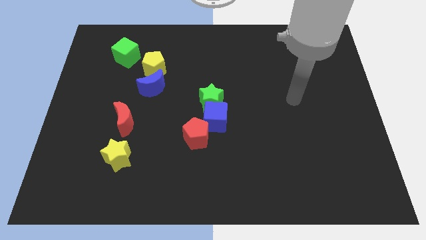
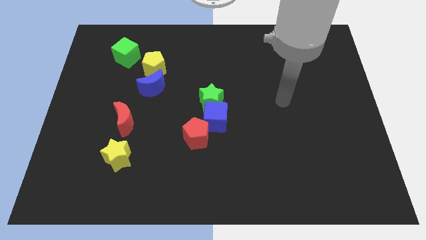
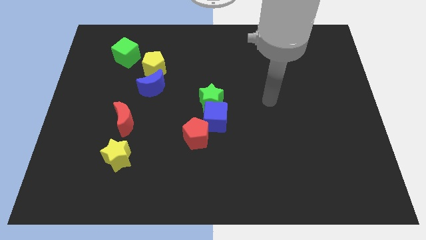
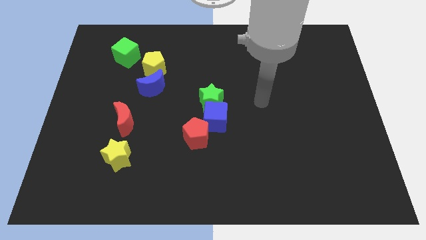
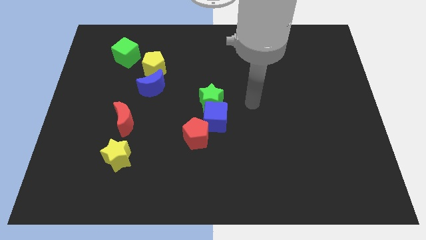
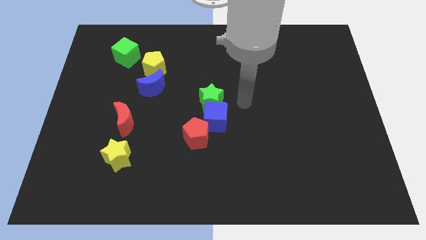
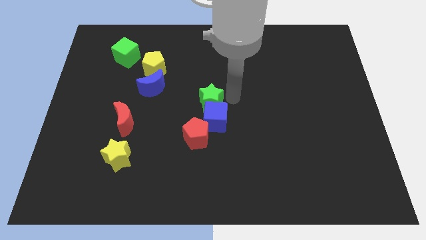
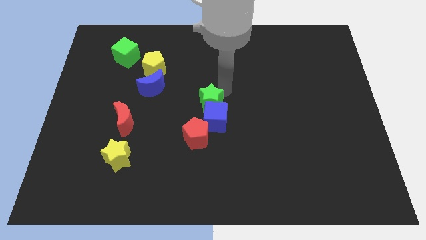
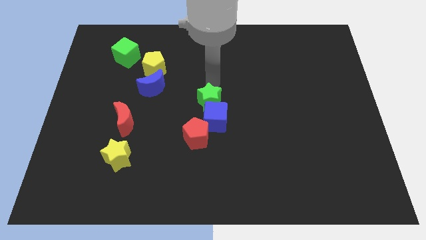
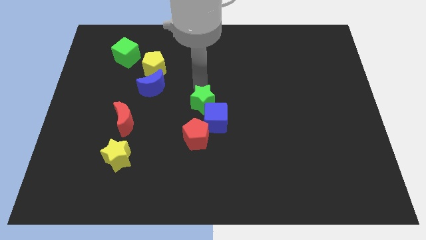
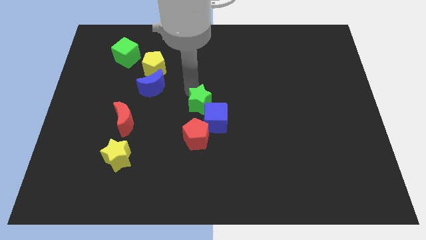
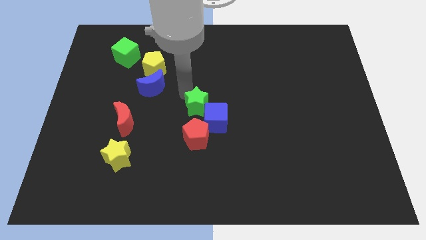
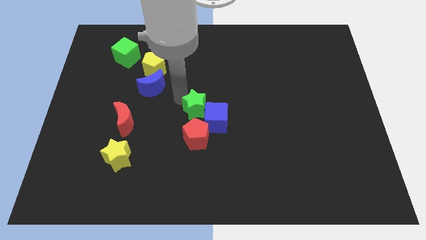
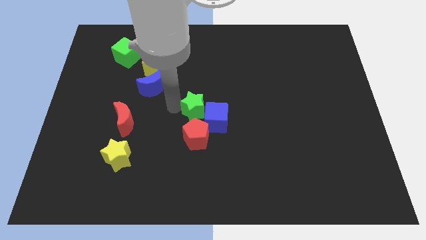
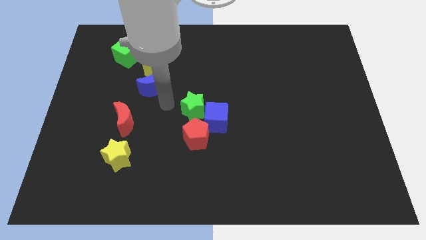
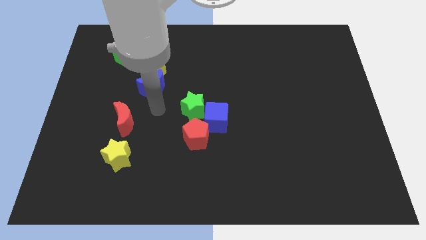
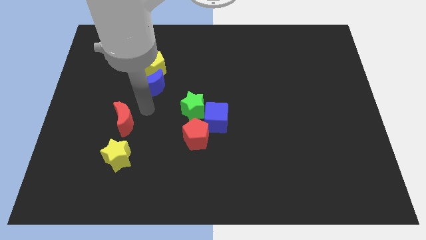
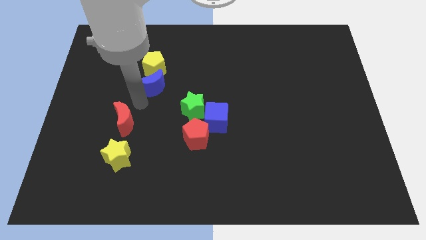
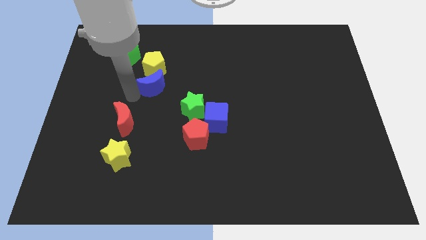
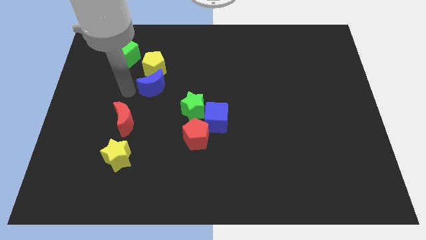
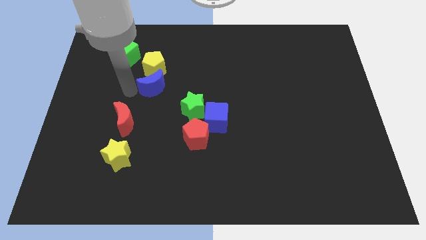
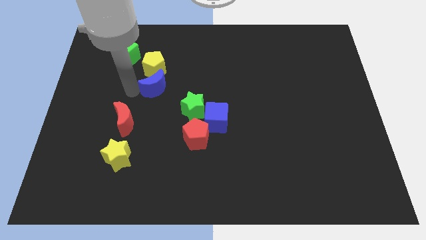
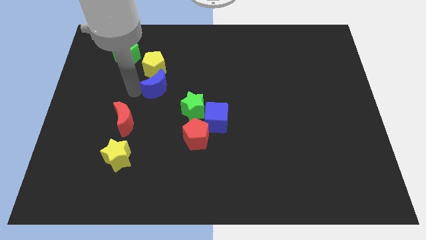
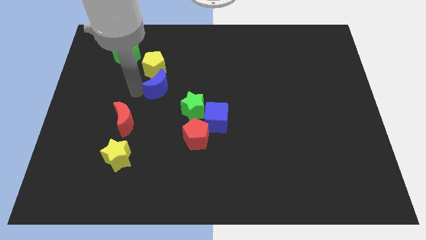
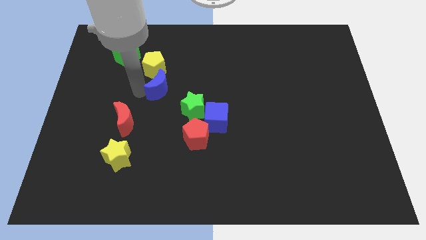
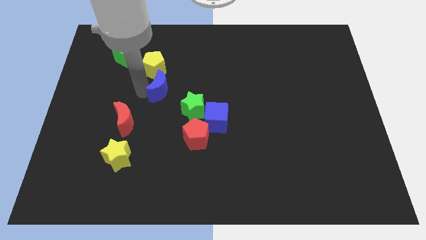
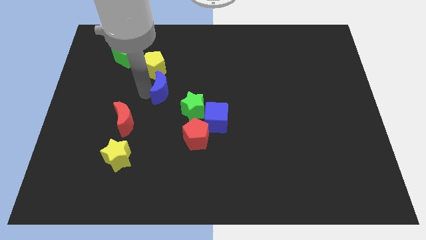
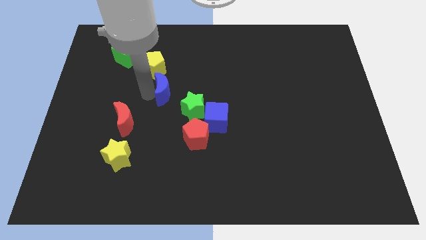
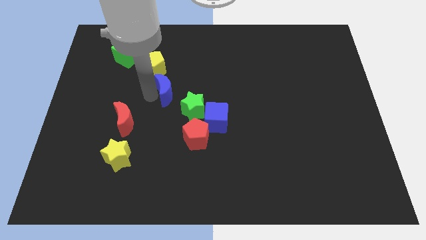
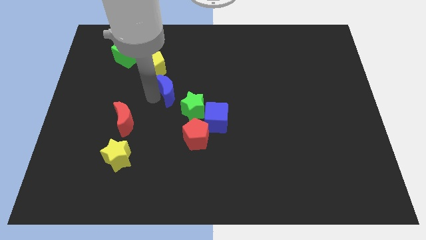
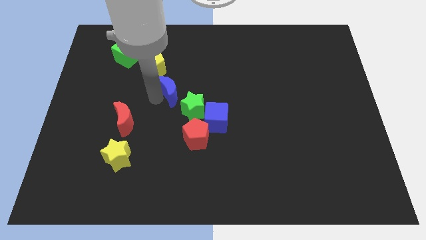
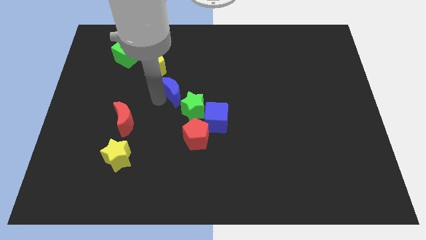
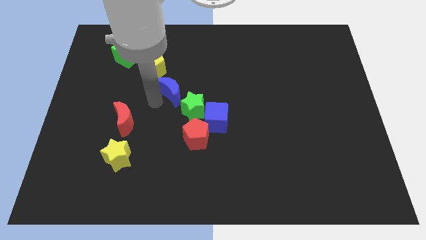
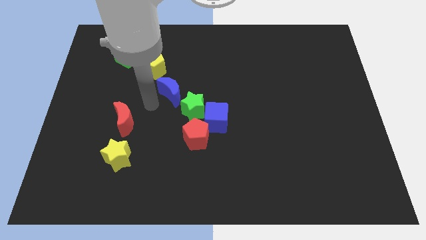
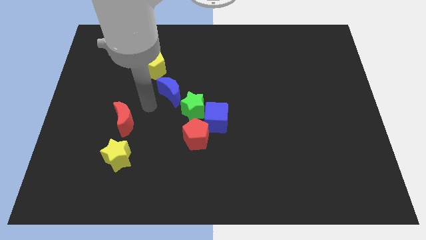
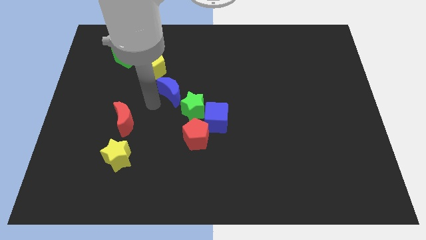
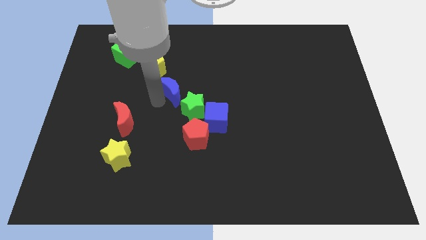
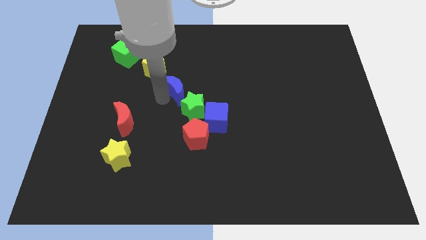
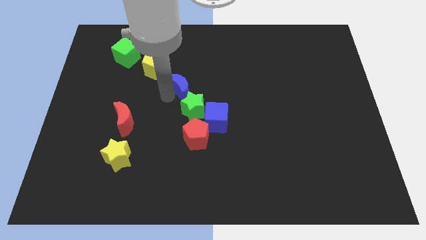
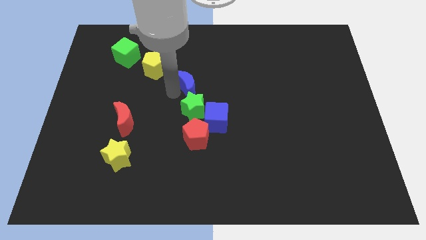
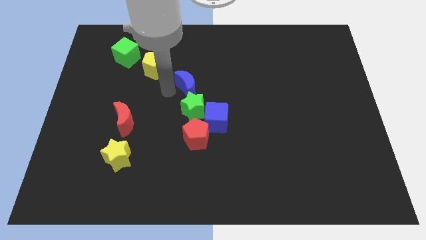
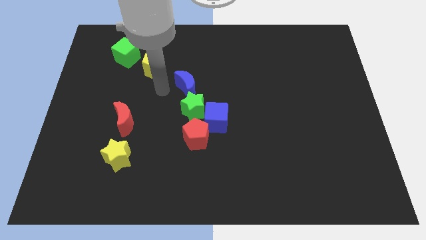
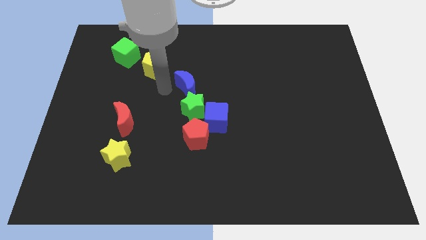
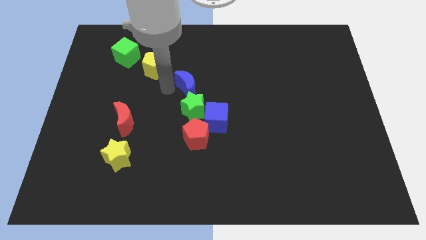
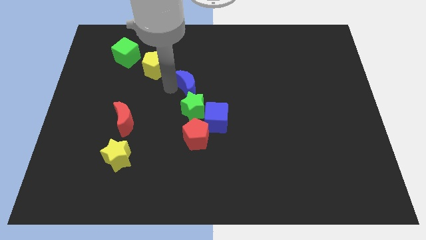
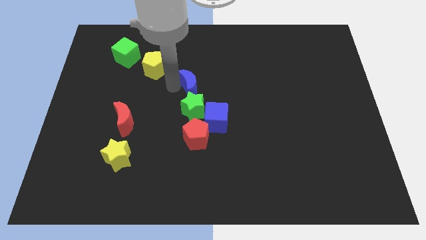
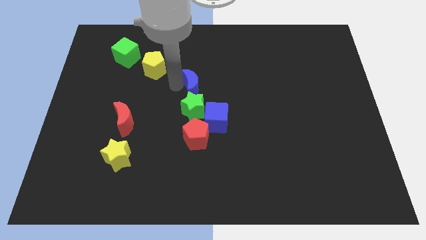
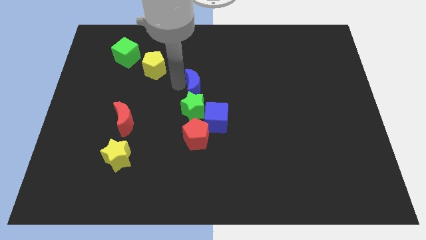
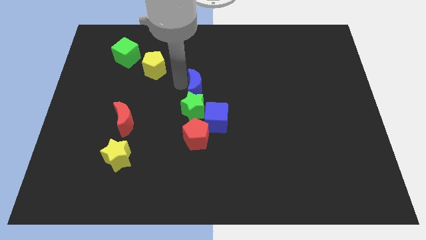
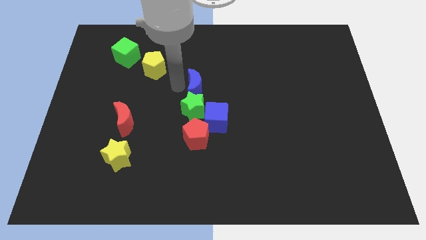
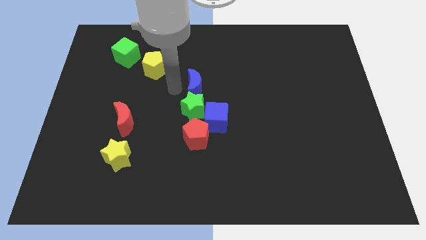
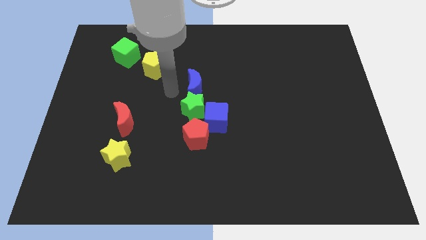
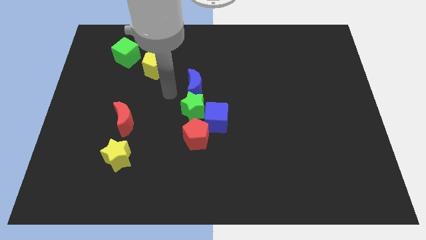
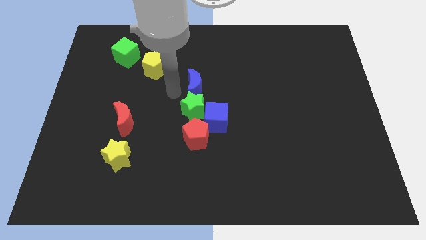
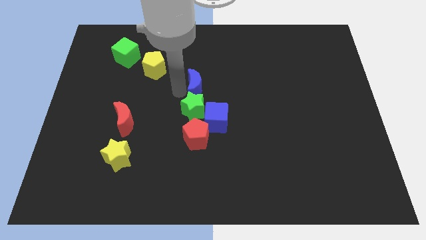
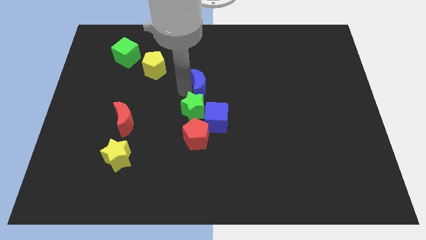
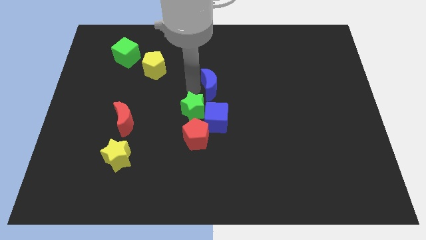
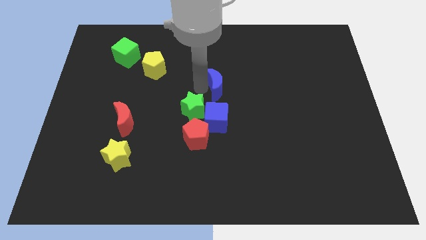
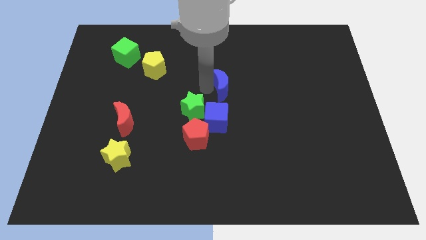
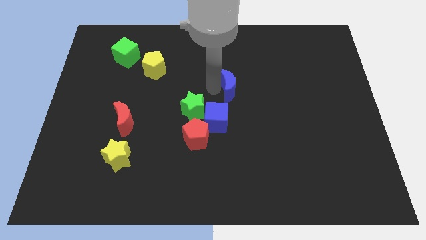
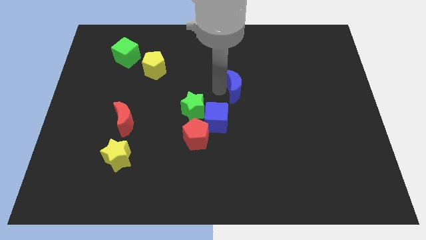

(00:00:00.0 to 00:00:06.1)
slide the blue moon to the right

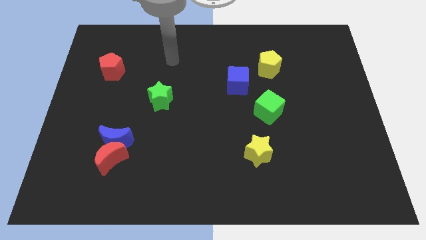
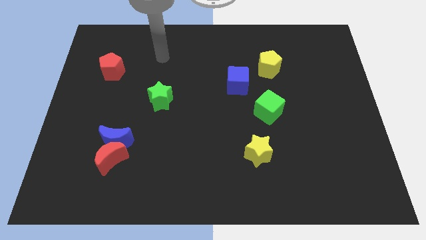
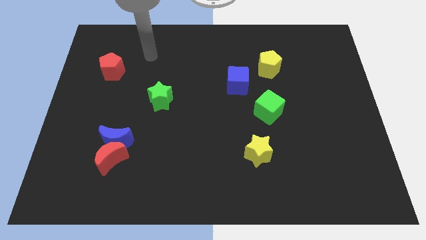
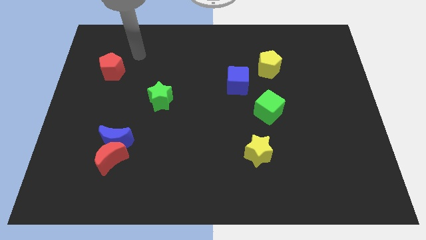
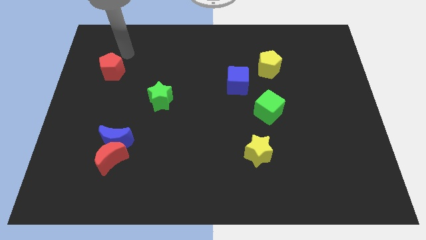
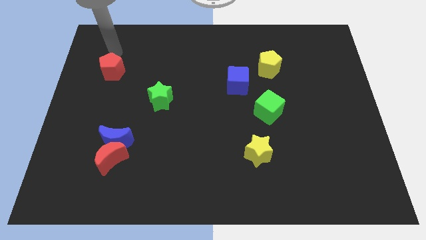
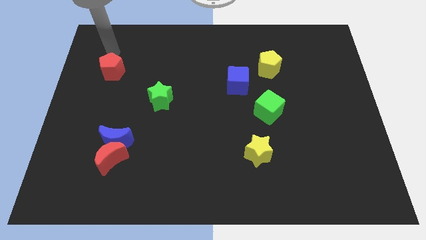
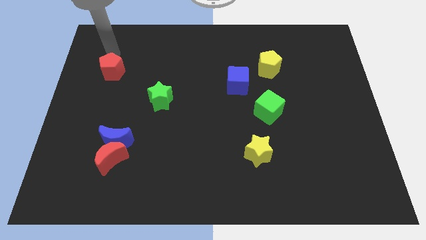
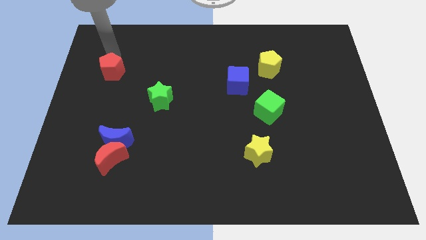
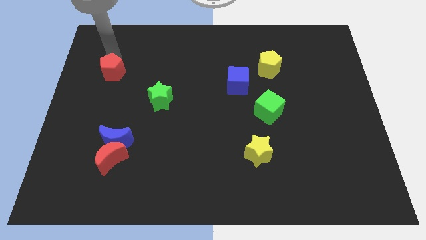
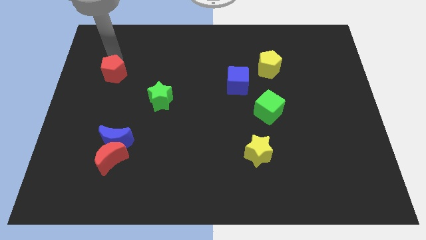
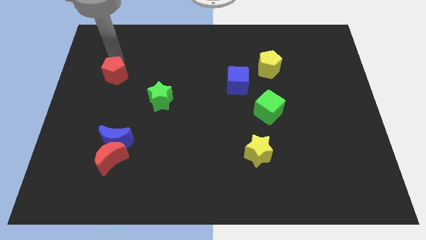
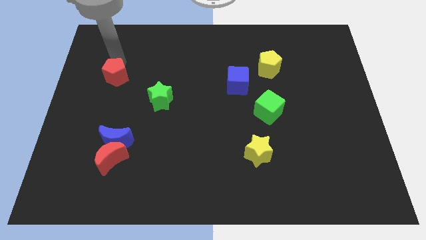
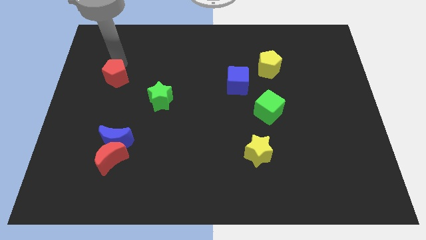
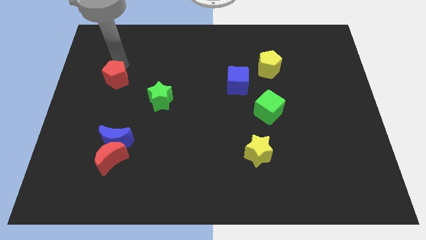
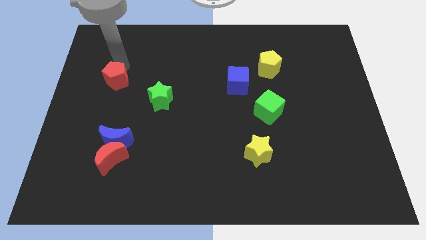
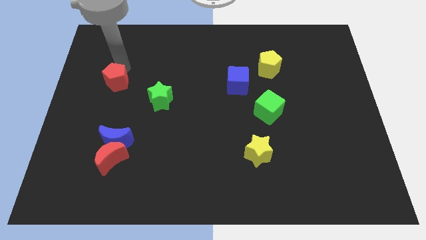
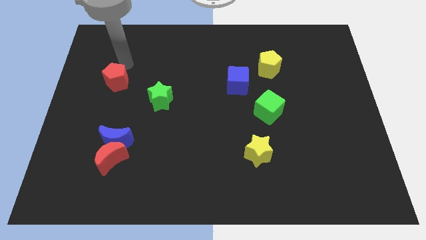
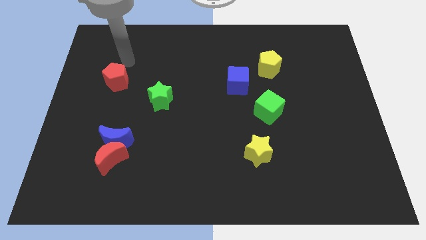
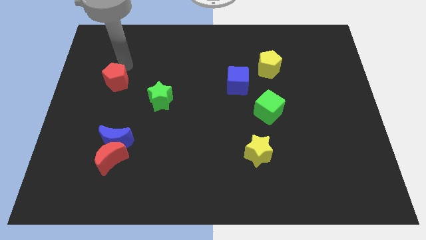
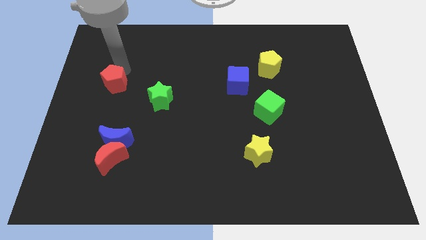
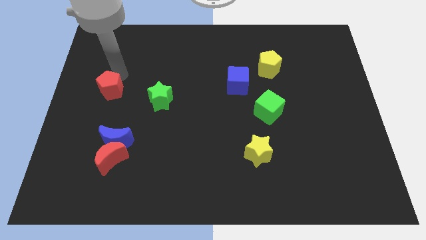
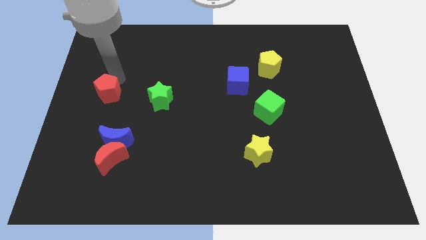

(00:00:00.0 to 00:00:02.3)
move the red pentagon a little bit down
